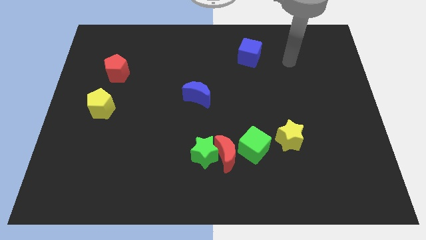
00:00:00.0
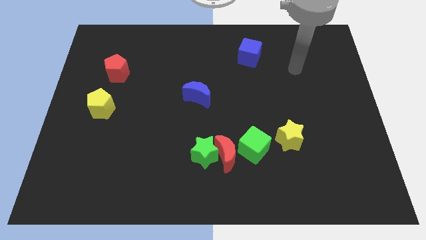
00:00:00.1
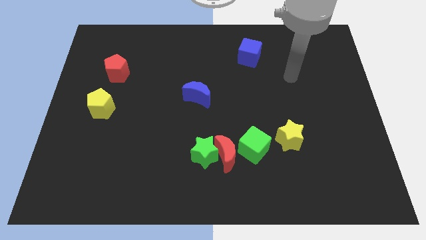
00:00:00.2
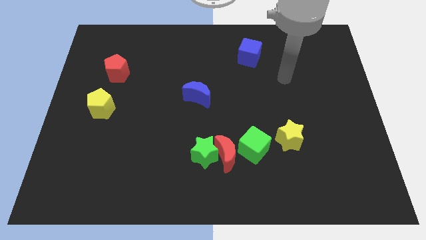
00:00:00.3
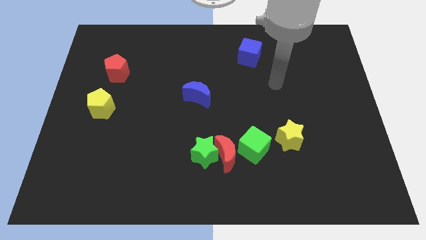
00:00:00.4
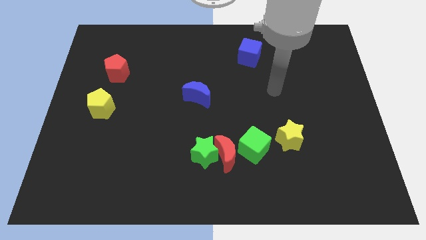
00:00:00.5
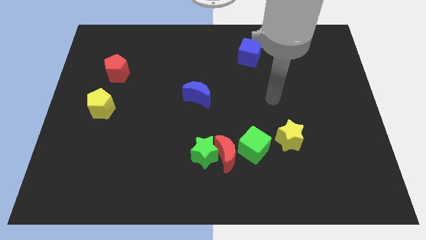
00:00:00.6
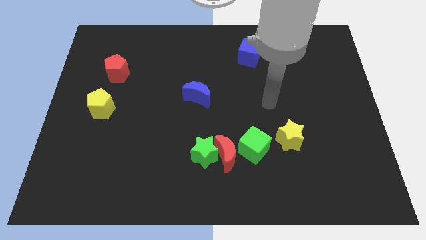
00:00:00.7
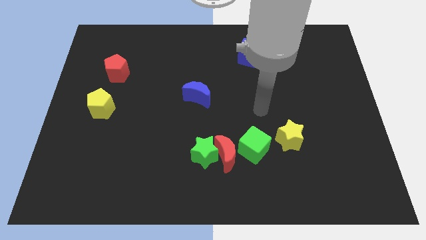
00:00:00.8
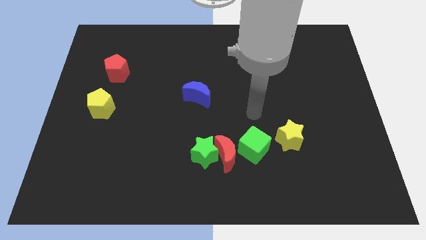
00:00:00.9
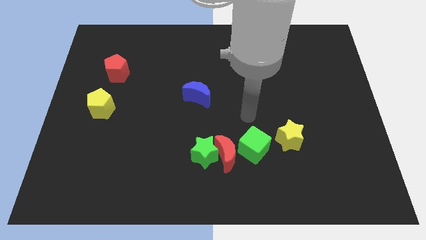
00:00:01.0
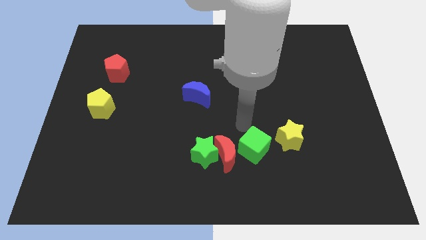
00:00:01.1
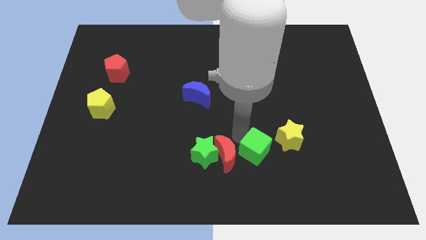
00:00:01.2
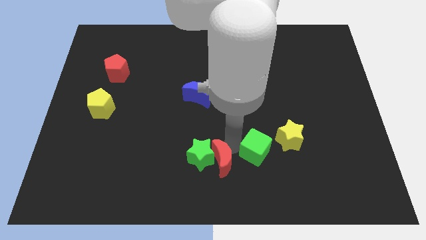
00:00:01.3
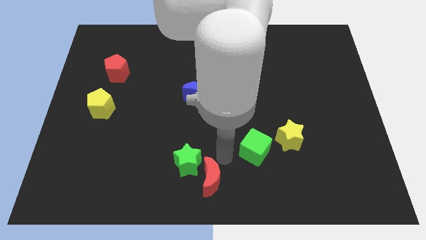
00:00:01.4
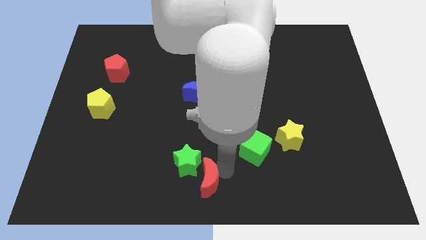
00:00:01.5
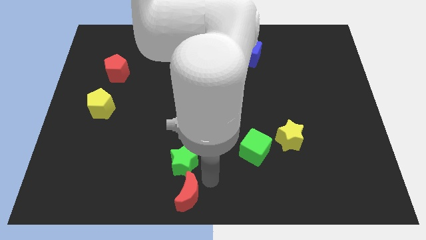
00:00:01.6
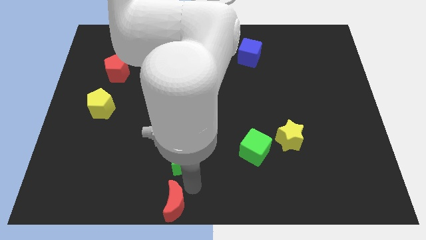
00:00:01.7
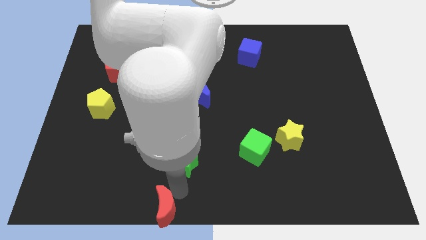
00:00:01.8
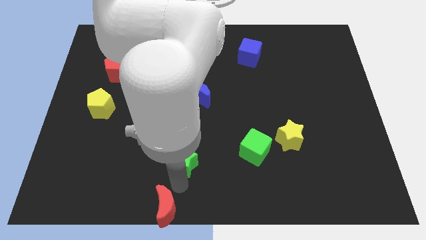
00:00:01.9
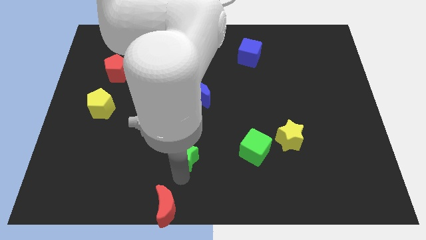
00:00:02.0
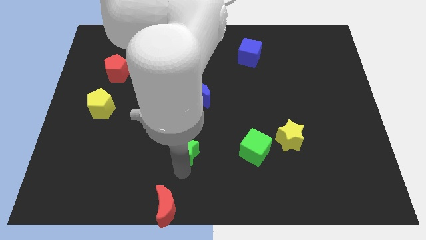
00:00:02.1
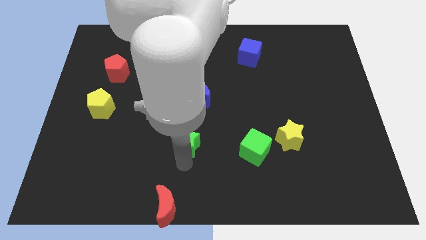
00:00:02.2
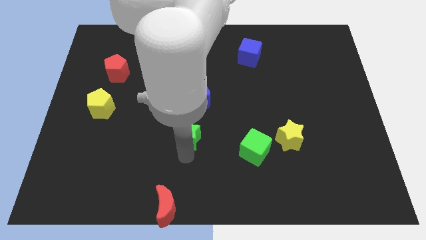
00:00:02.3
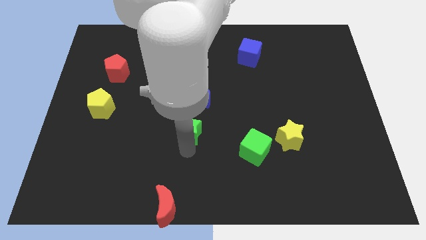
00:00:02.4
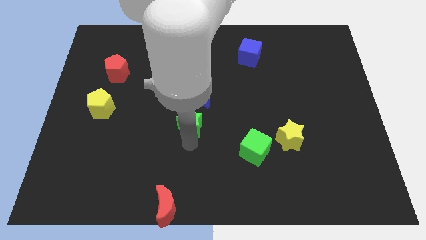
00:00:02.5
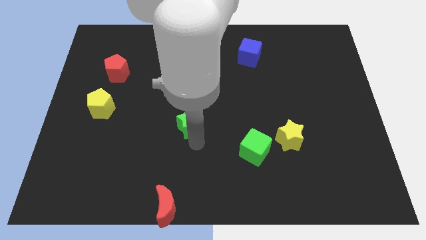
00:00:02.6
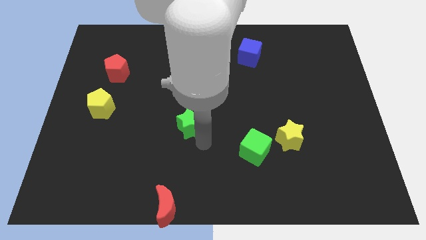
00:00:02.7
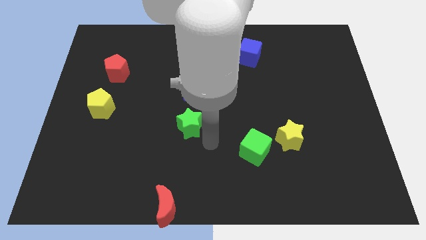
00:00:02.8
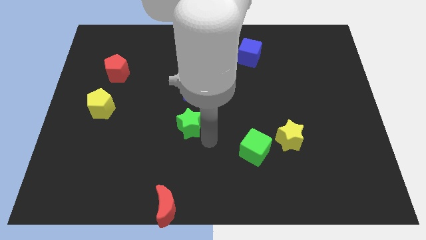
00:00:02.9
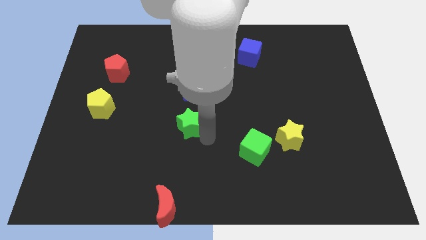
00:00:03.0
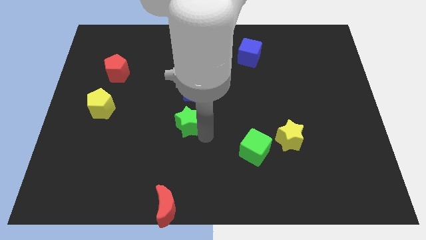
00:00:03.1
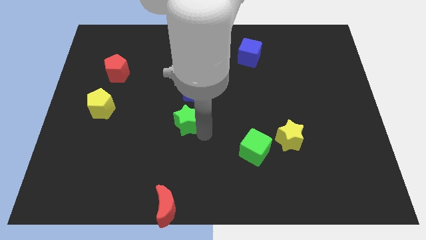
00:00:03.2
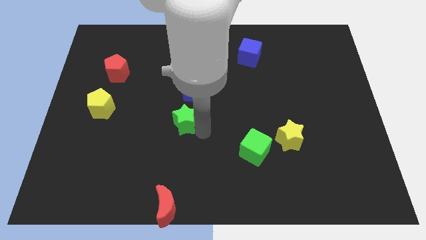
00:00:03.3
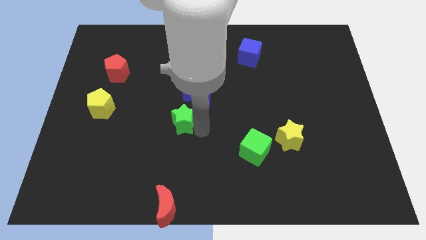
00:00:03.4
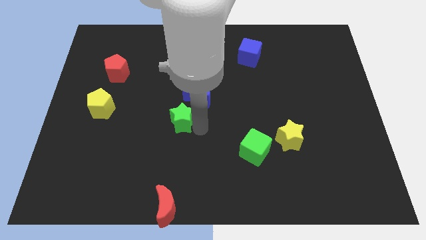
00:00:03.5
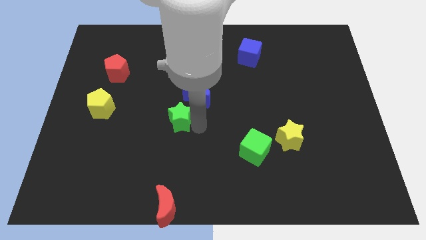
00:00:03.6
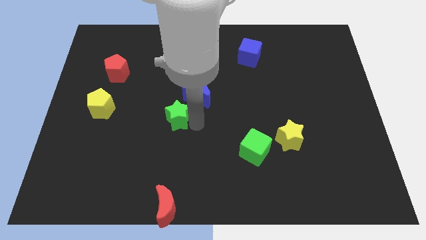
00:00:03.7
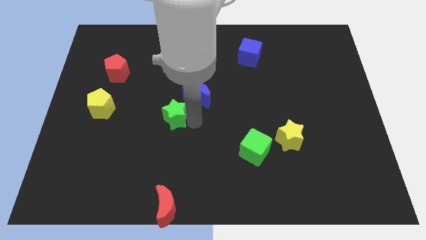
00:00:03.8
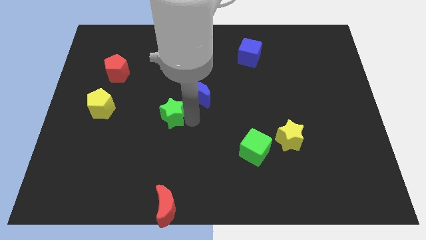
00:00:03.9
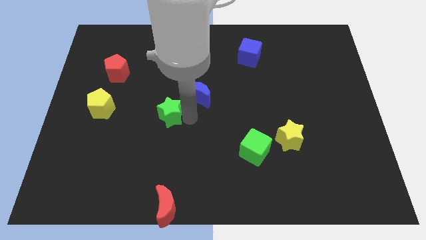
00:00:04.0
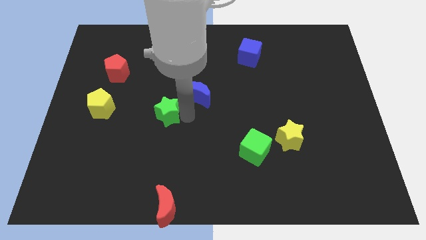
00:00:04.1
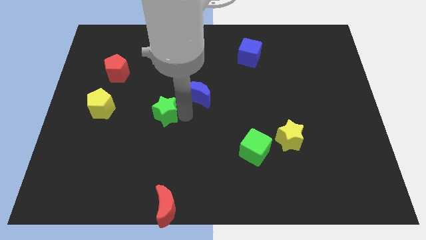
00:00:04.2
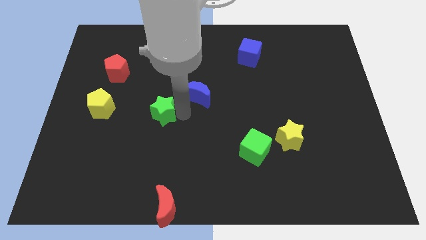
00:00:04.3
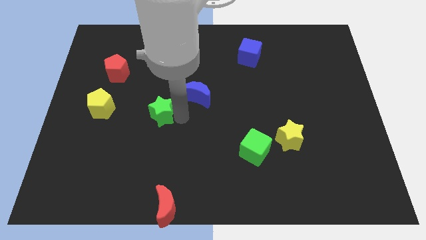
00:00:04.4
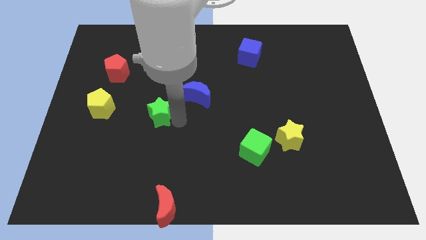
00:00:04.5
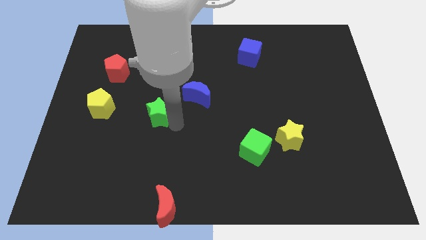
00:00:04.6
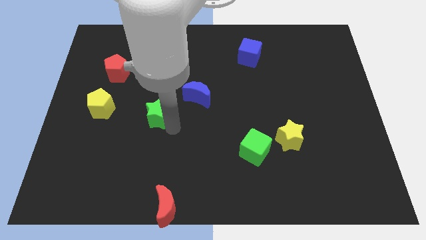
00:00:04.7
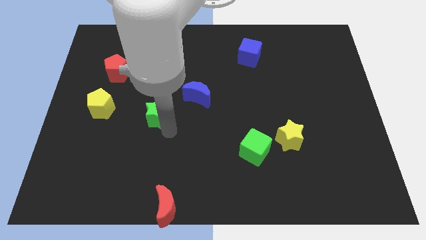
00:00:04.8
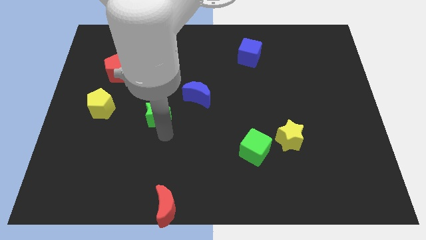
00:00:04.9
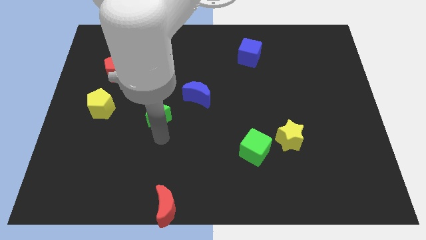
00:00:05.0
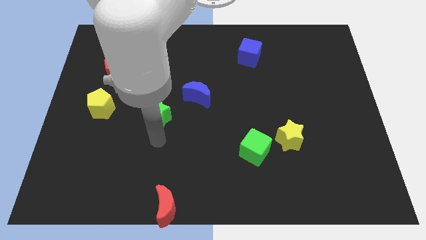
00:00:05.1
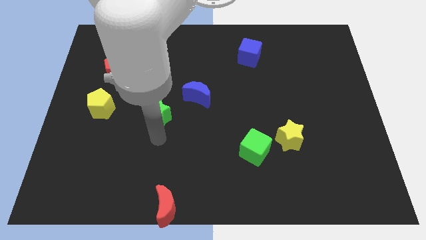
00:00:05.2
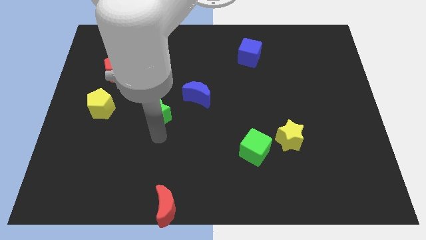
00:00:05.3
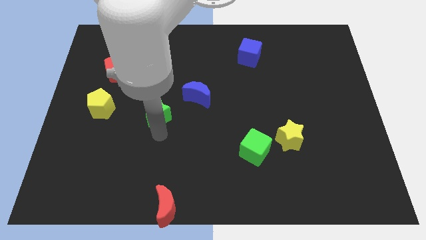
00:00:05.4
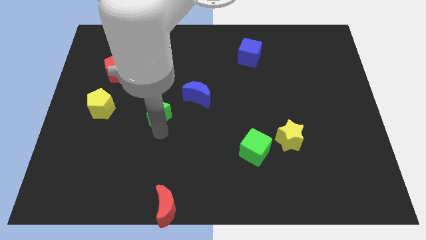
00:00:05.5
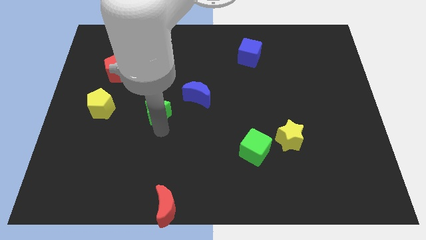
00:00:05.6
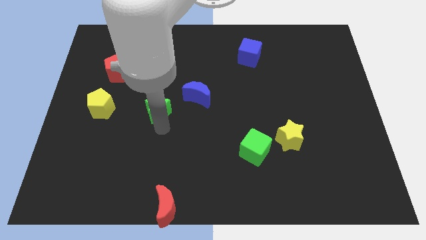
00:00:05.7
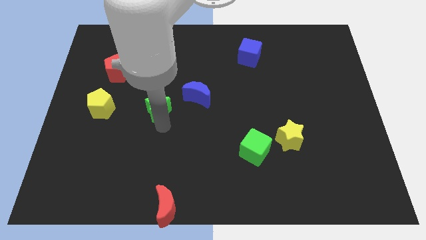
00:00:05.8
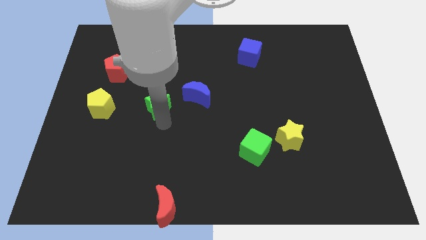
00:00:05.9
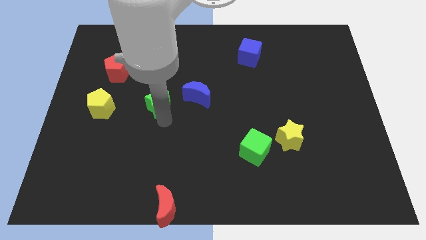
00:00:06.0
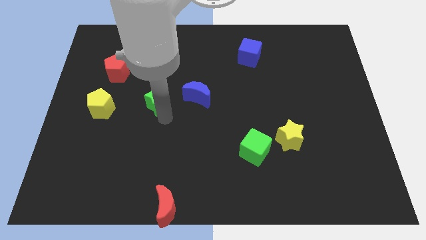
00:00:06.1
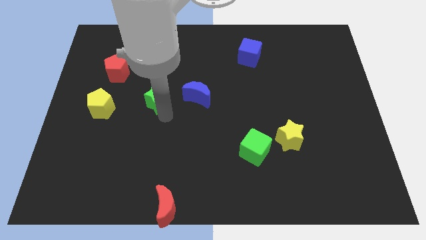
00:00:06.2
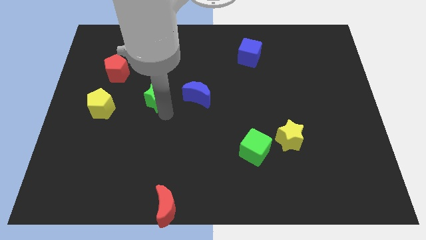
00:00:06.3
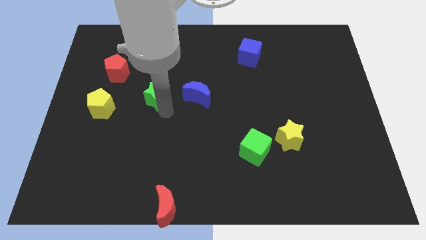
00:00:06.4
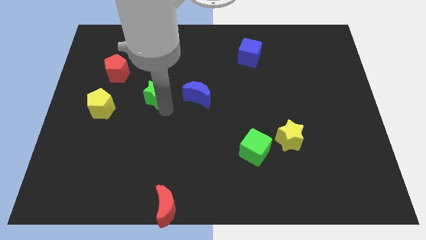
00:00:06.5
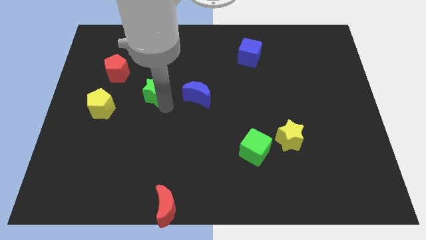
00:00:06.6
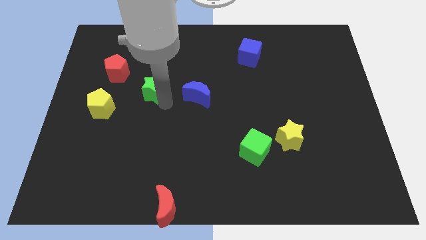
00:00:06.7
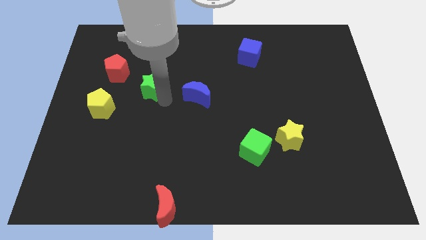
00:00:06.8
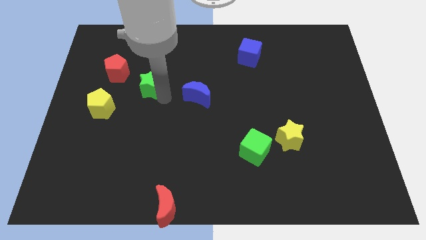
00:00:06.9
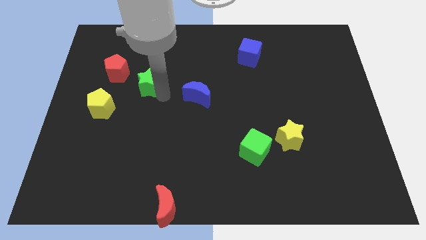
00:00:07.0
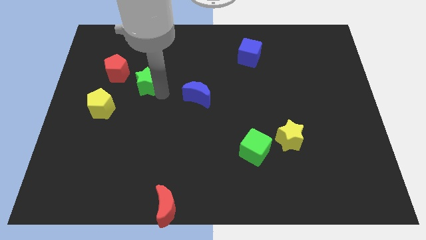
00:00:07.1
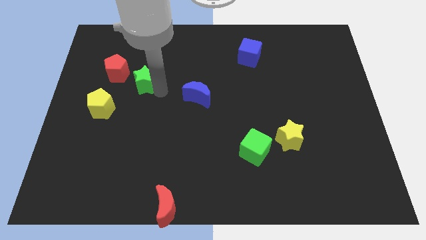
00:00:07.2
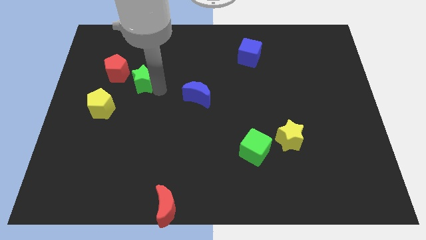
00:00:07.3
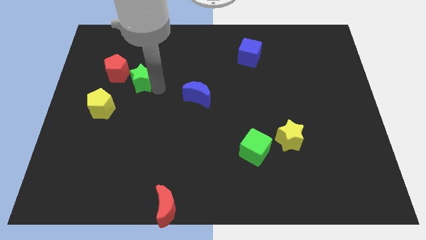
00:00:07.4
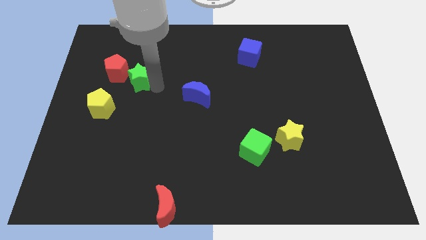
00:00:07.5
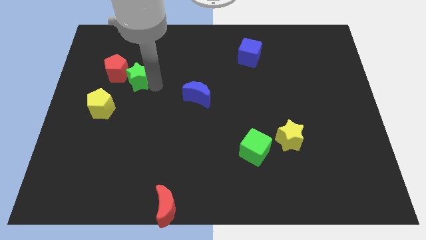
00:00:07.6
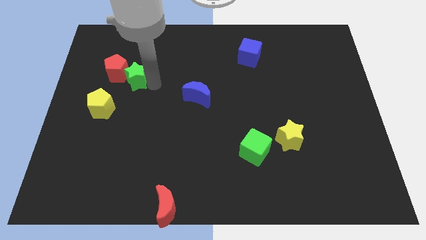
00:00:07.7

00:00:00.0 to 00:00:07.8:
slide the green star to the red pentagon

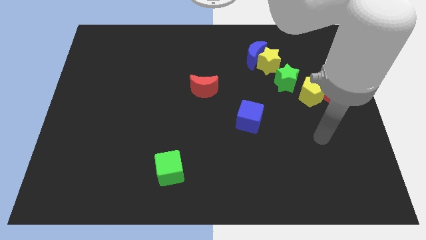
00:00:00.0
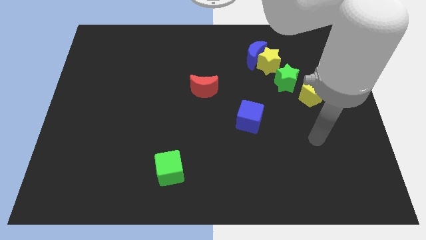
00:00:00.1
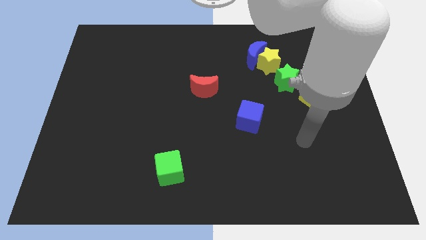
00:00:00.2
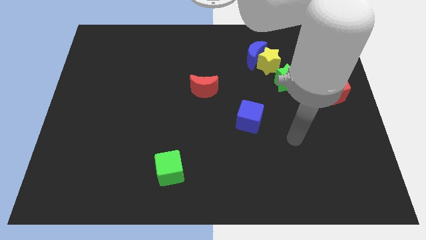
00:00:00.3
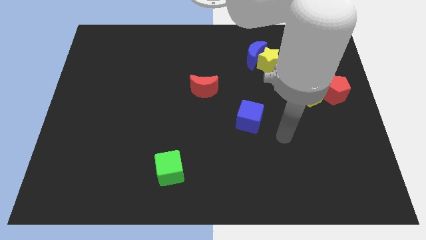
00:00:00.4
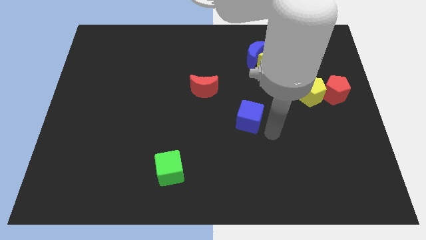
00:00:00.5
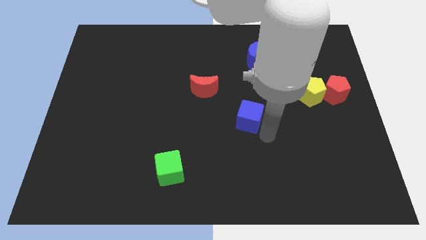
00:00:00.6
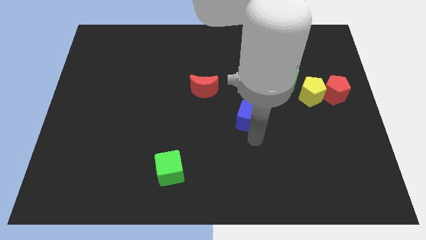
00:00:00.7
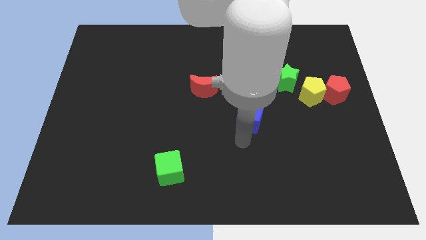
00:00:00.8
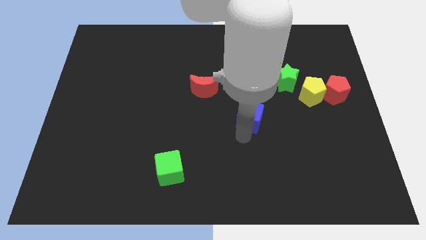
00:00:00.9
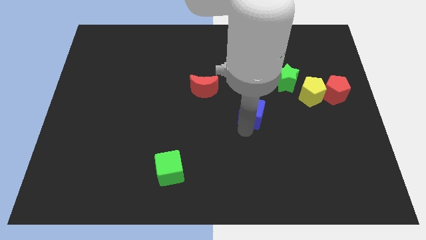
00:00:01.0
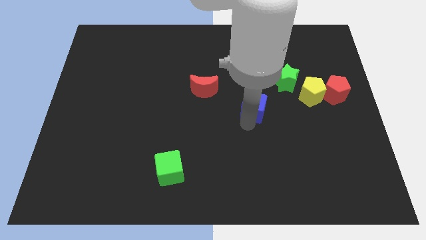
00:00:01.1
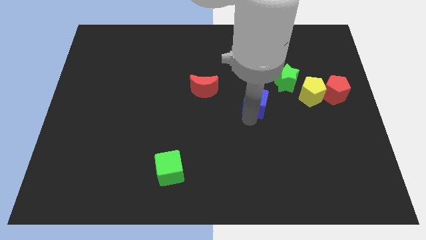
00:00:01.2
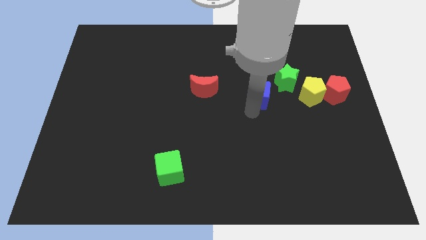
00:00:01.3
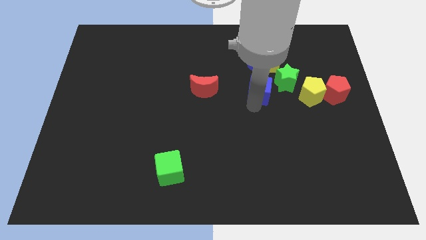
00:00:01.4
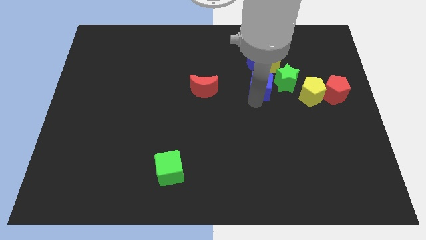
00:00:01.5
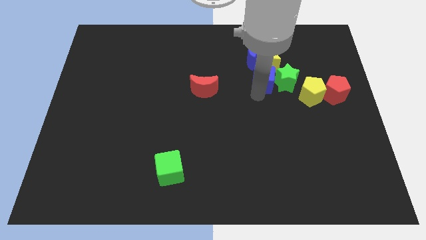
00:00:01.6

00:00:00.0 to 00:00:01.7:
slide the blue cube towards the yellow star
